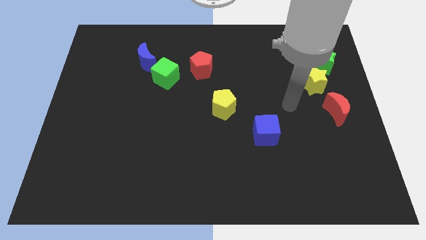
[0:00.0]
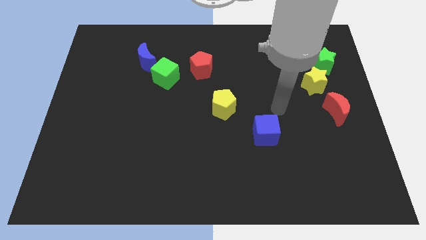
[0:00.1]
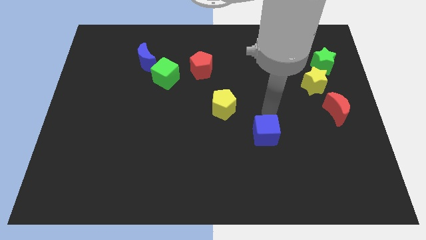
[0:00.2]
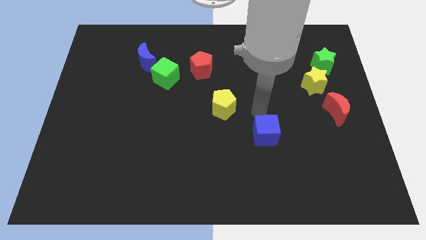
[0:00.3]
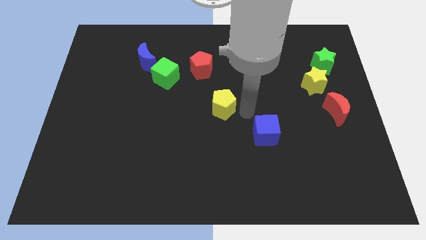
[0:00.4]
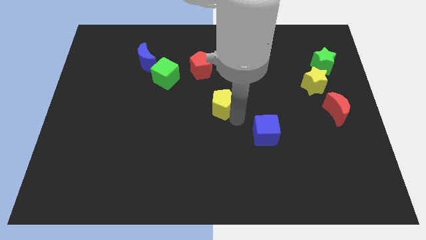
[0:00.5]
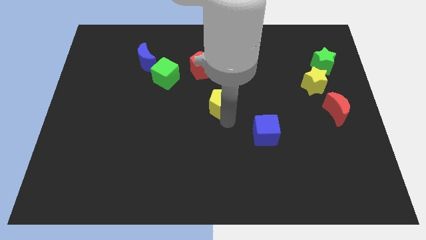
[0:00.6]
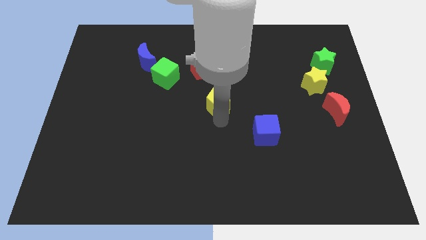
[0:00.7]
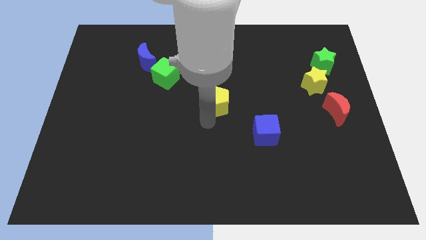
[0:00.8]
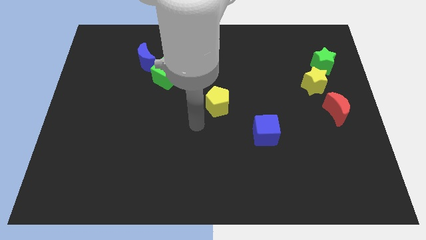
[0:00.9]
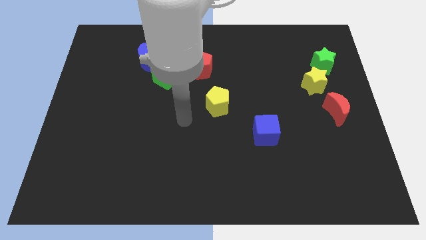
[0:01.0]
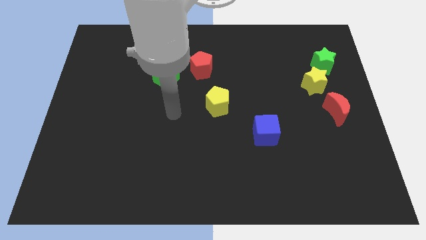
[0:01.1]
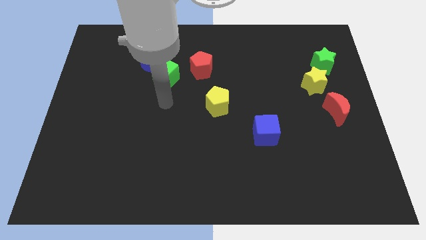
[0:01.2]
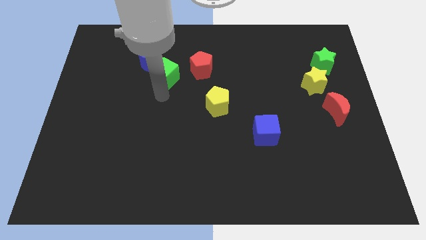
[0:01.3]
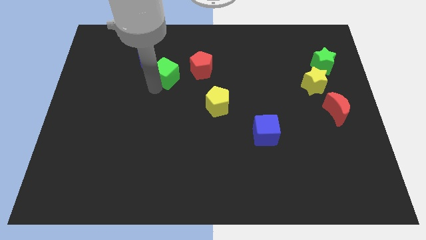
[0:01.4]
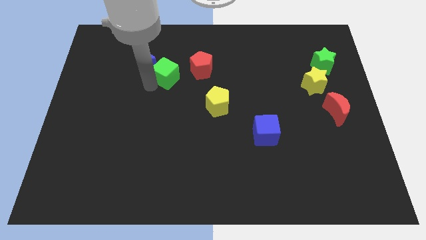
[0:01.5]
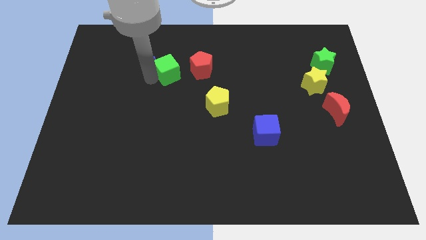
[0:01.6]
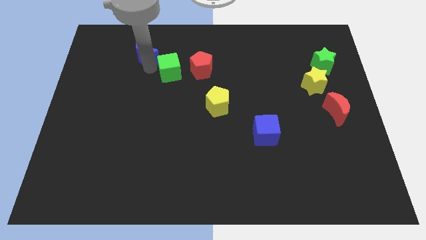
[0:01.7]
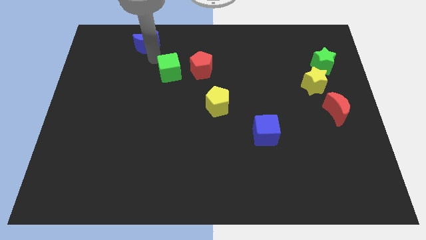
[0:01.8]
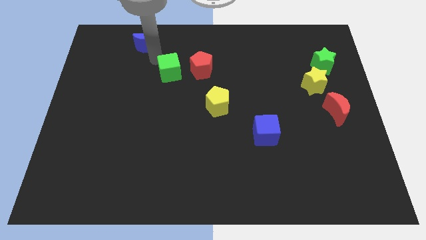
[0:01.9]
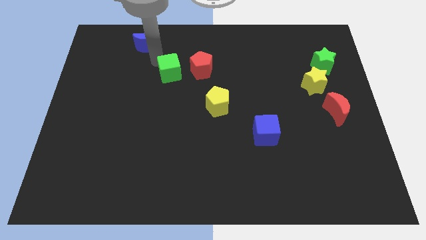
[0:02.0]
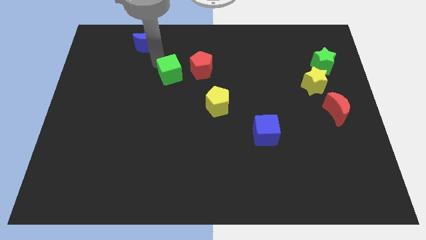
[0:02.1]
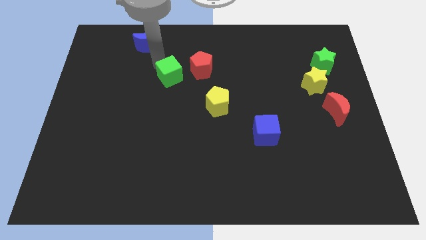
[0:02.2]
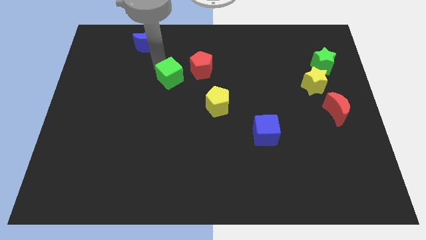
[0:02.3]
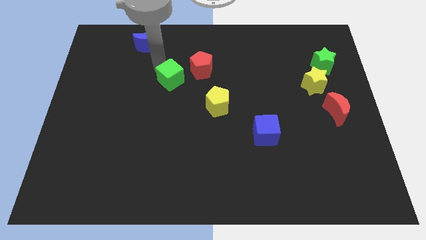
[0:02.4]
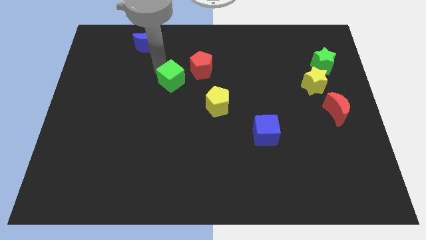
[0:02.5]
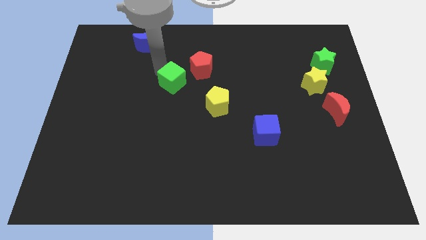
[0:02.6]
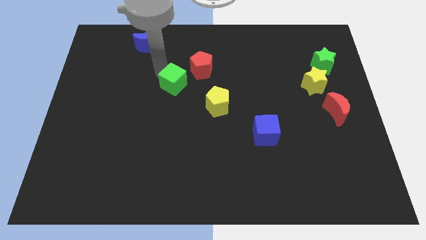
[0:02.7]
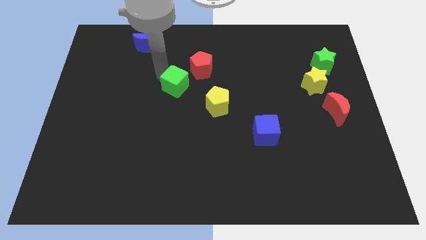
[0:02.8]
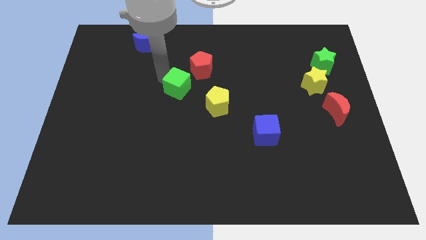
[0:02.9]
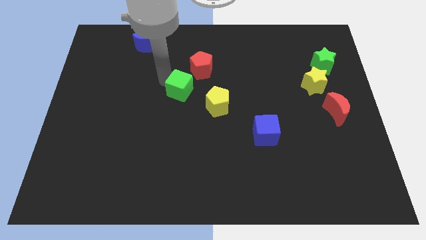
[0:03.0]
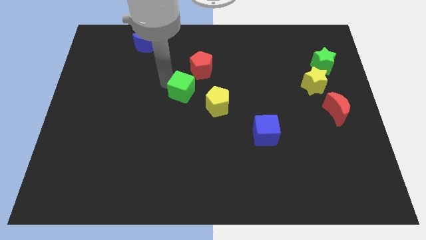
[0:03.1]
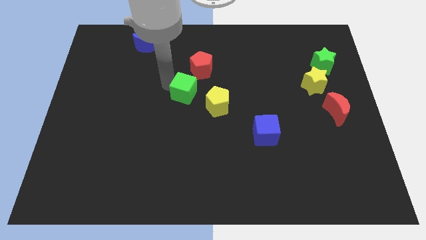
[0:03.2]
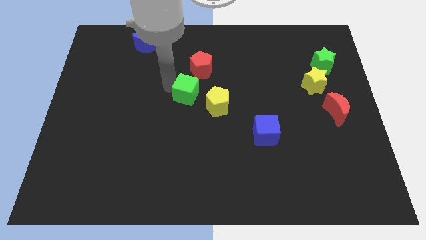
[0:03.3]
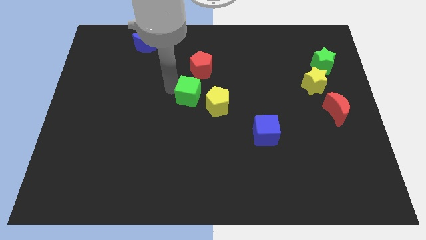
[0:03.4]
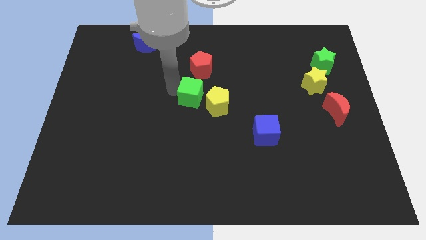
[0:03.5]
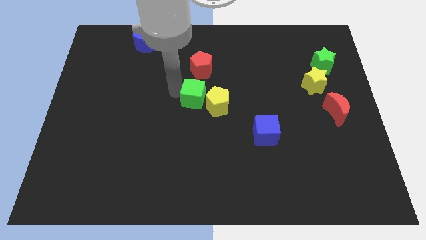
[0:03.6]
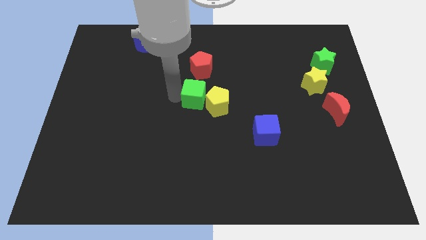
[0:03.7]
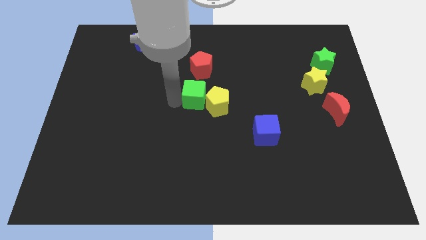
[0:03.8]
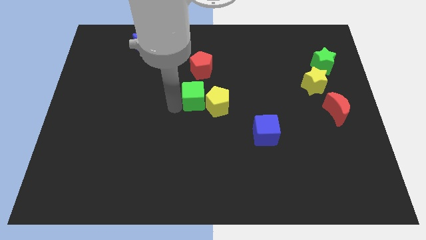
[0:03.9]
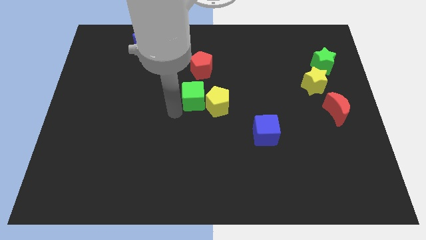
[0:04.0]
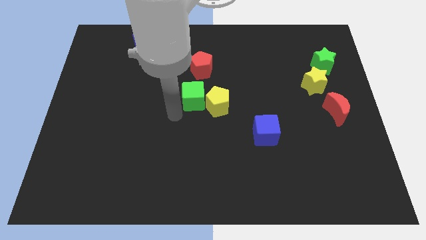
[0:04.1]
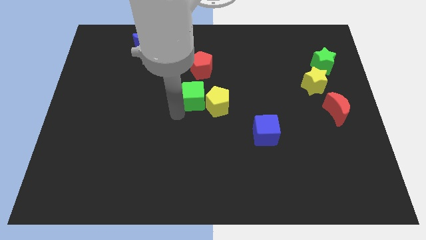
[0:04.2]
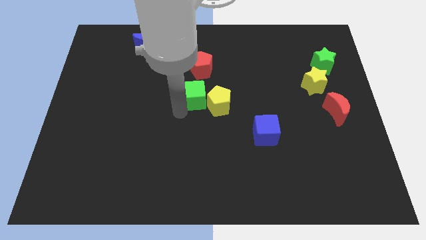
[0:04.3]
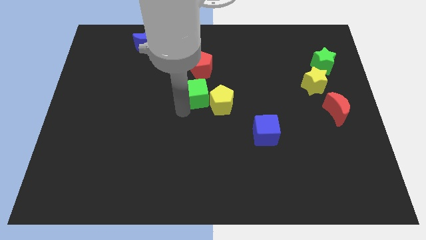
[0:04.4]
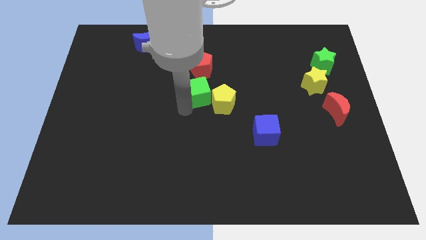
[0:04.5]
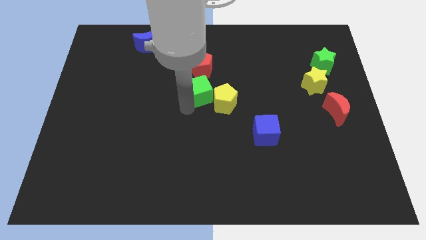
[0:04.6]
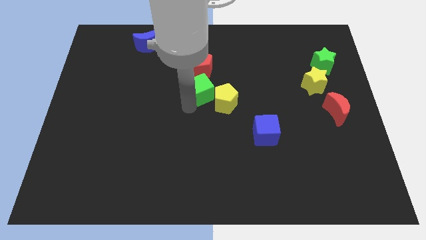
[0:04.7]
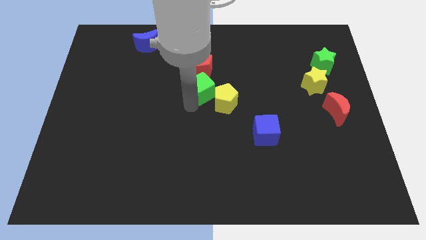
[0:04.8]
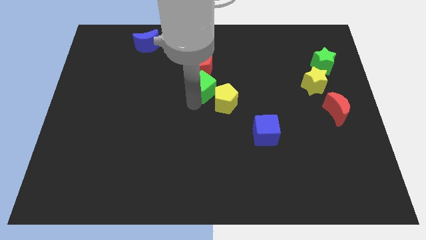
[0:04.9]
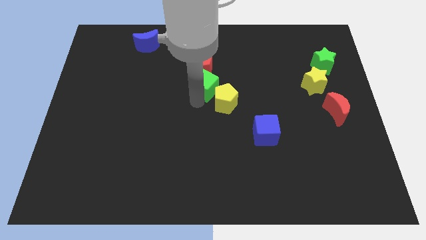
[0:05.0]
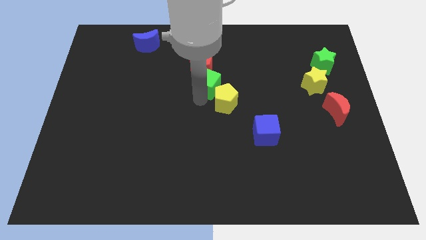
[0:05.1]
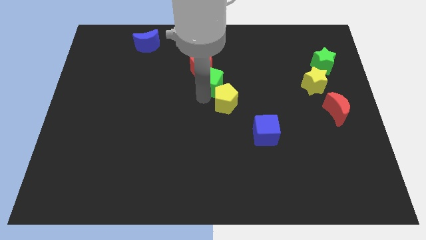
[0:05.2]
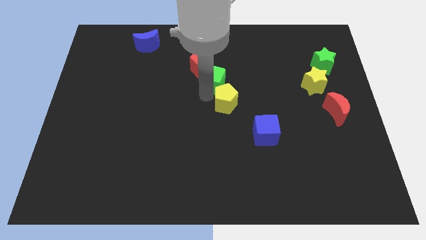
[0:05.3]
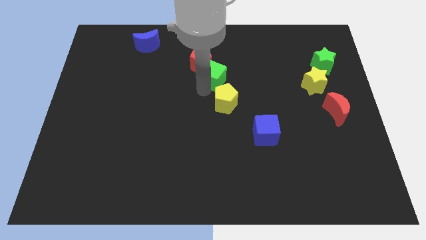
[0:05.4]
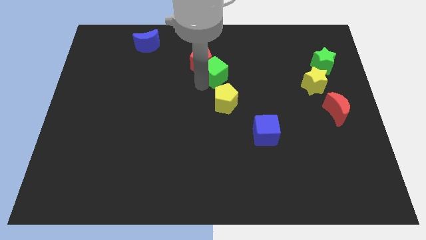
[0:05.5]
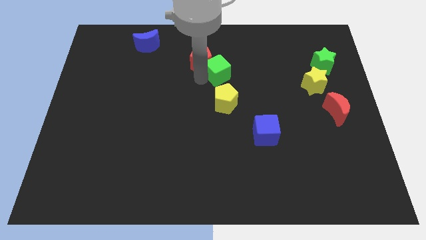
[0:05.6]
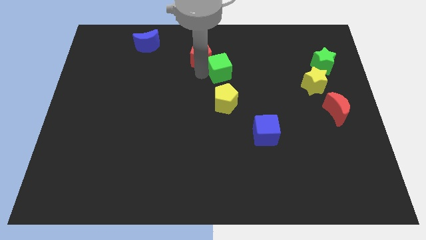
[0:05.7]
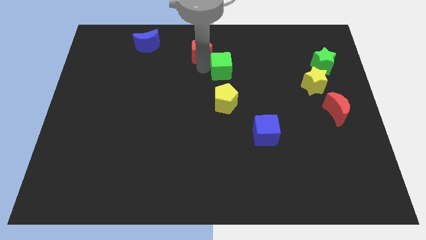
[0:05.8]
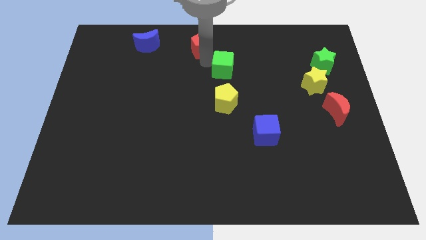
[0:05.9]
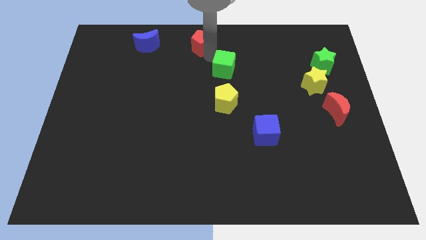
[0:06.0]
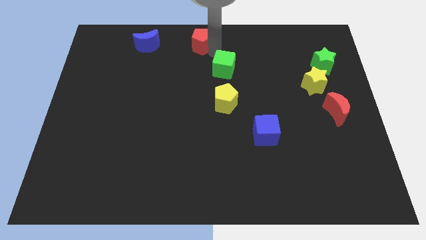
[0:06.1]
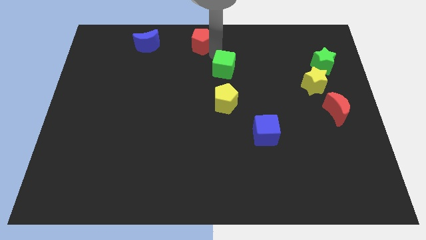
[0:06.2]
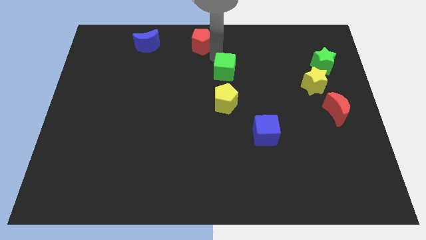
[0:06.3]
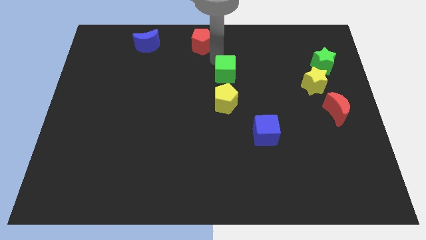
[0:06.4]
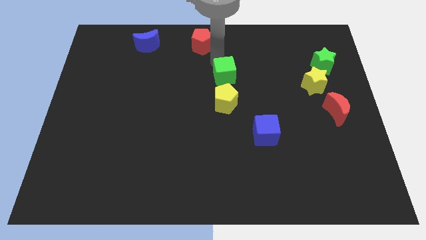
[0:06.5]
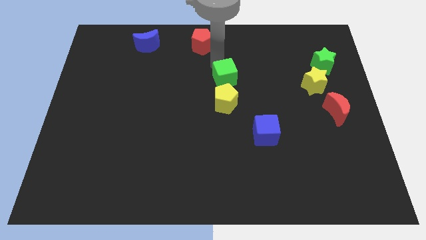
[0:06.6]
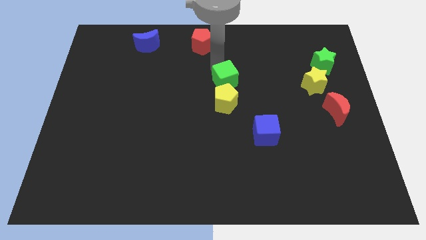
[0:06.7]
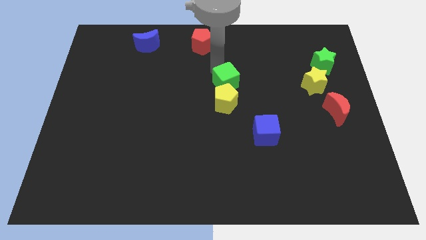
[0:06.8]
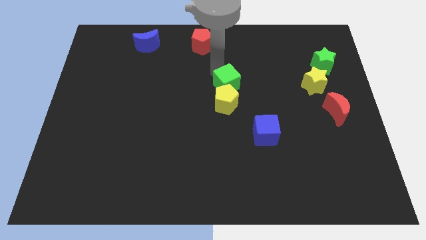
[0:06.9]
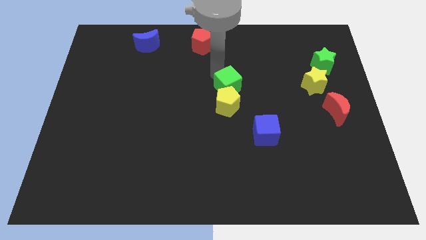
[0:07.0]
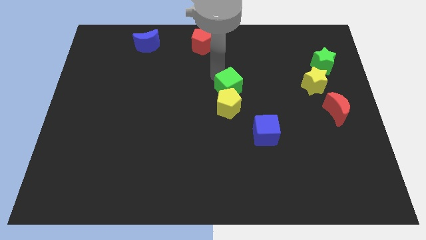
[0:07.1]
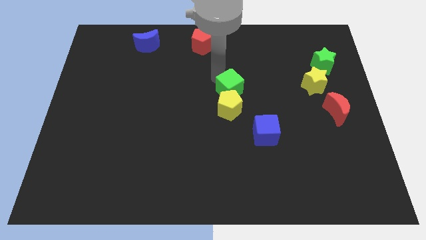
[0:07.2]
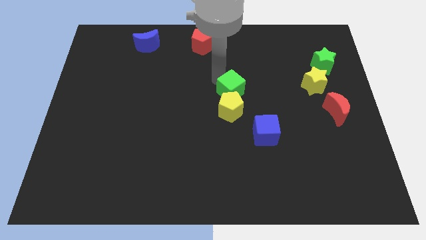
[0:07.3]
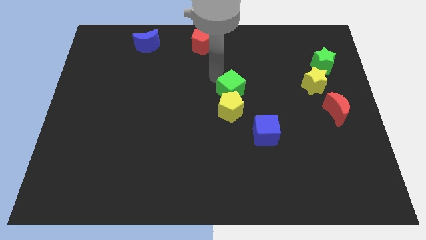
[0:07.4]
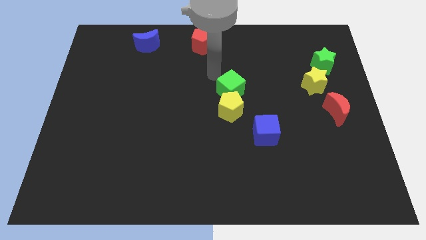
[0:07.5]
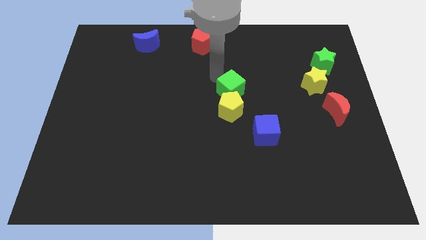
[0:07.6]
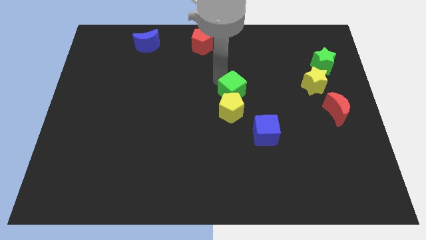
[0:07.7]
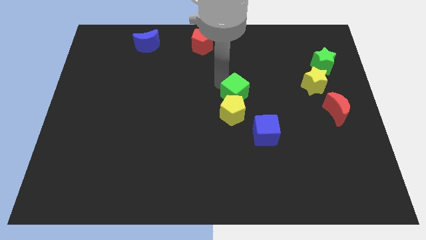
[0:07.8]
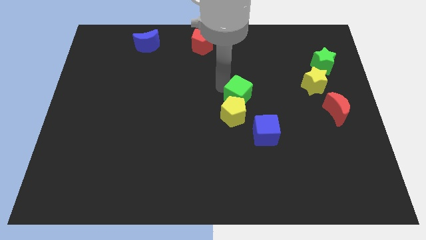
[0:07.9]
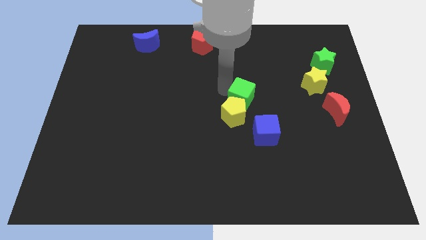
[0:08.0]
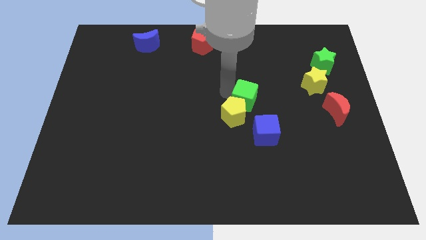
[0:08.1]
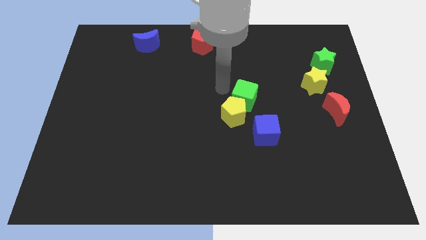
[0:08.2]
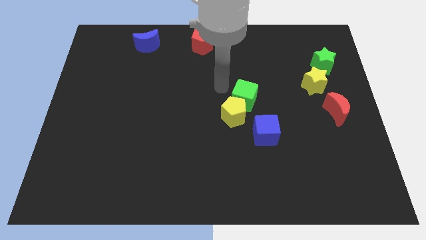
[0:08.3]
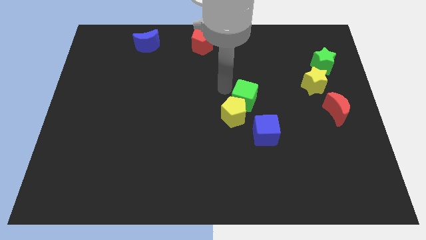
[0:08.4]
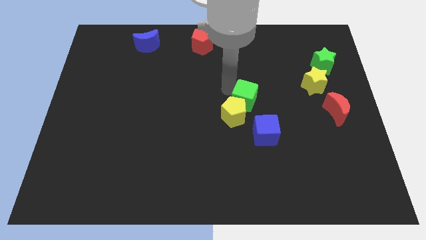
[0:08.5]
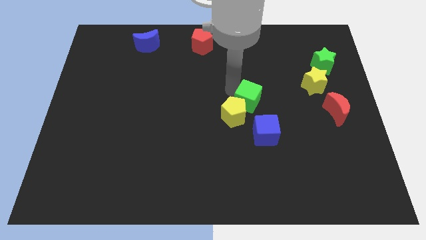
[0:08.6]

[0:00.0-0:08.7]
slide the green cube right of the yellow pentagon
